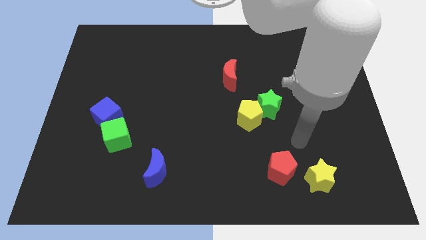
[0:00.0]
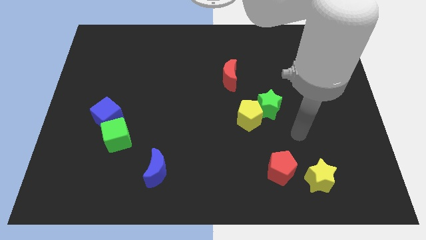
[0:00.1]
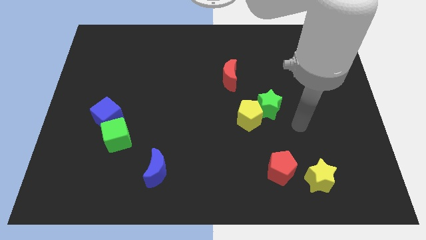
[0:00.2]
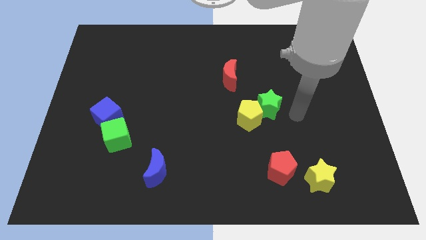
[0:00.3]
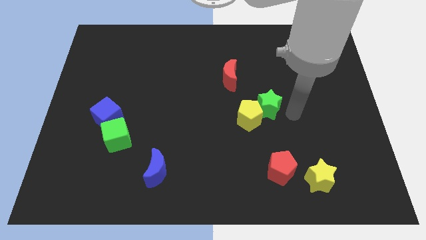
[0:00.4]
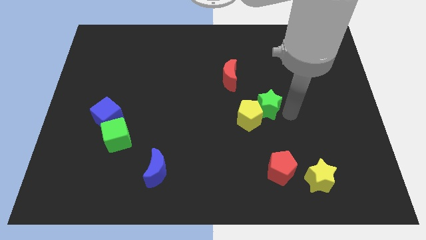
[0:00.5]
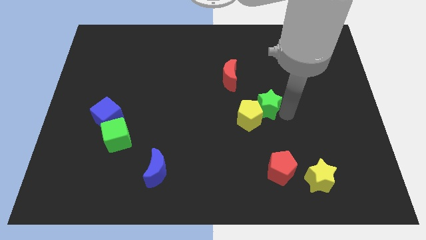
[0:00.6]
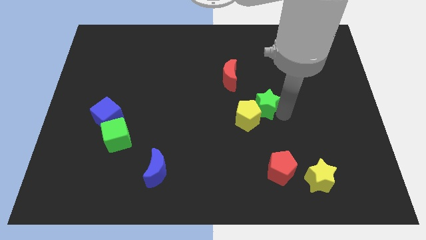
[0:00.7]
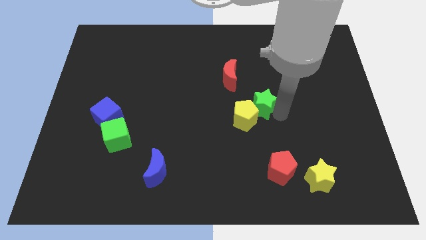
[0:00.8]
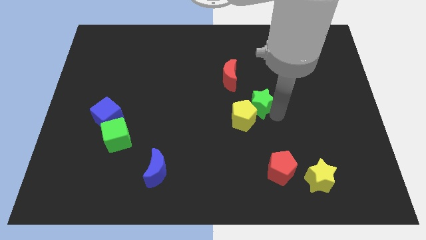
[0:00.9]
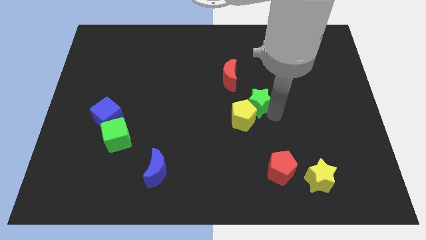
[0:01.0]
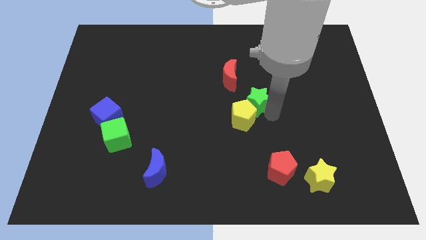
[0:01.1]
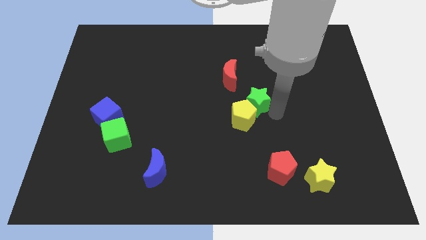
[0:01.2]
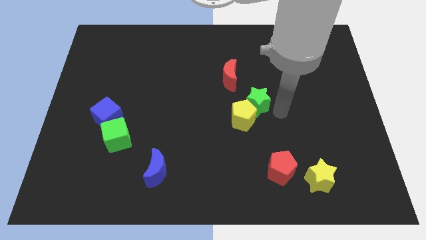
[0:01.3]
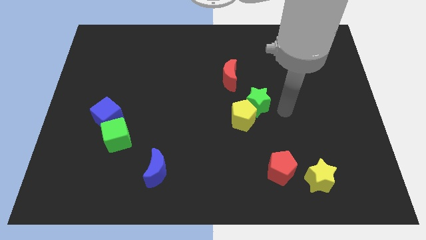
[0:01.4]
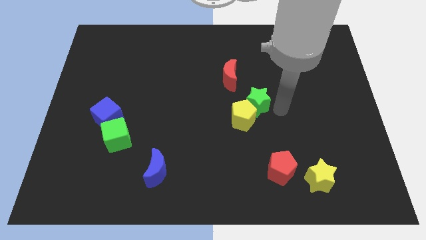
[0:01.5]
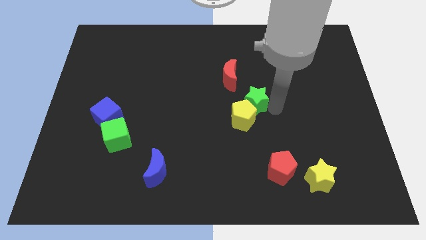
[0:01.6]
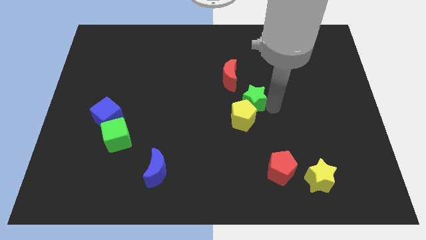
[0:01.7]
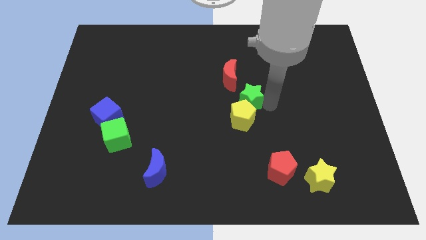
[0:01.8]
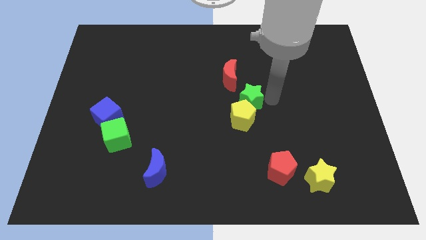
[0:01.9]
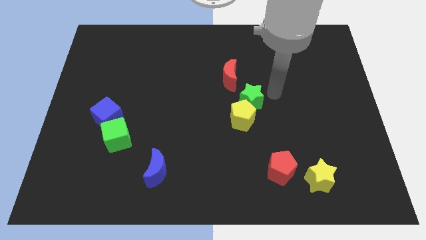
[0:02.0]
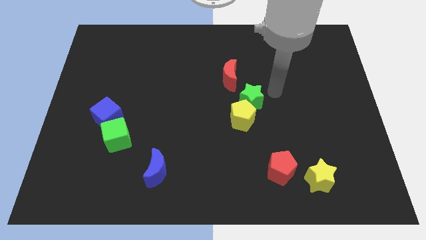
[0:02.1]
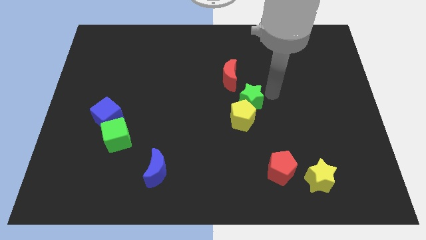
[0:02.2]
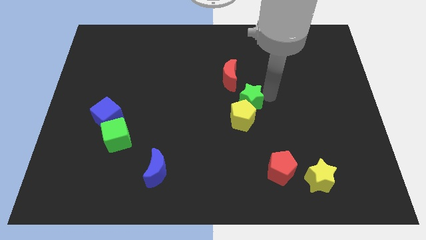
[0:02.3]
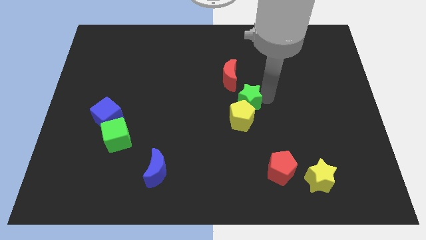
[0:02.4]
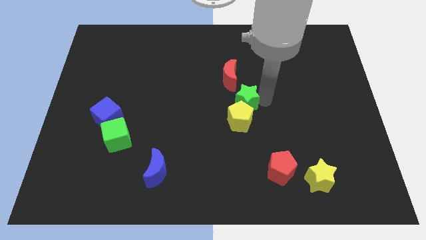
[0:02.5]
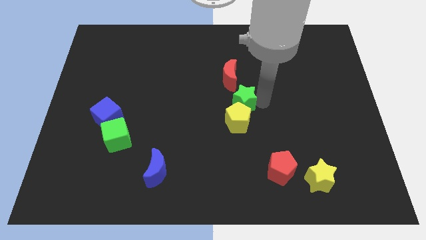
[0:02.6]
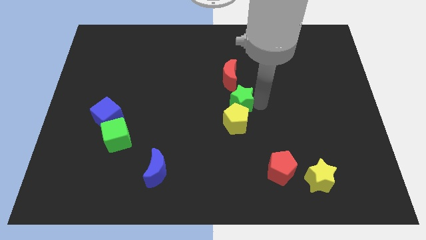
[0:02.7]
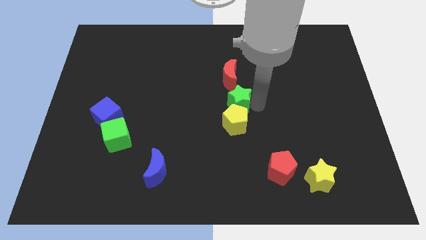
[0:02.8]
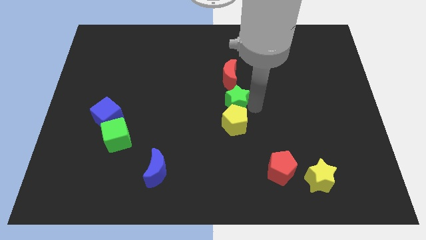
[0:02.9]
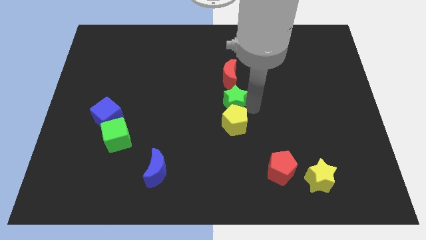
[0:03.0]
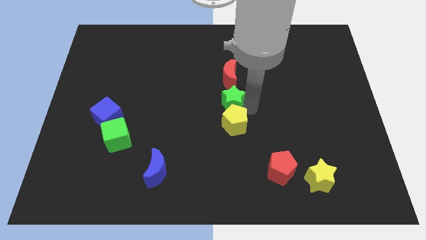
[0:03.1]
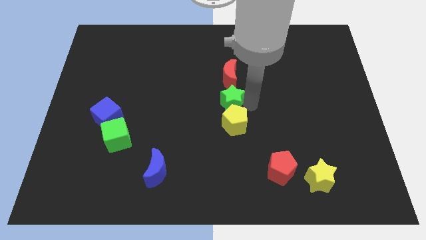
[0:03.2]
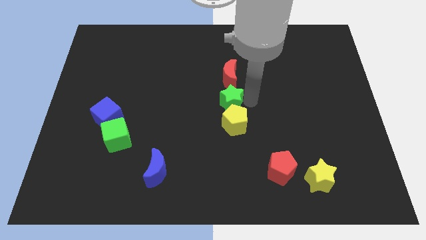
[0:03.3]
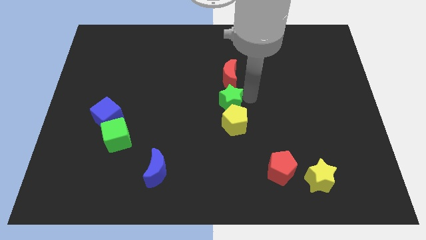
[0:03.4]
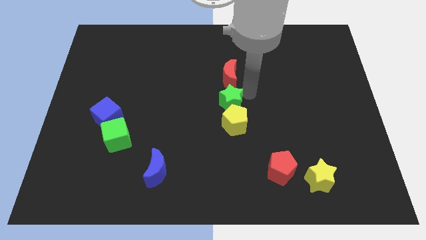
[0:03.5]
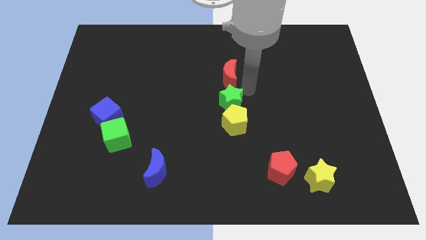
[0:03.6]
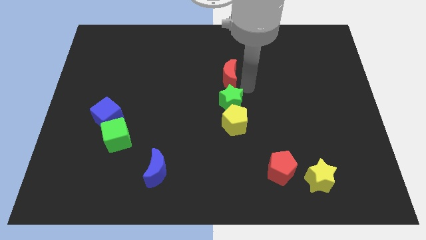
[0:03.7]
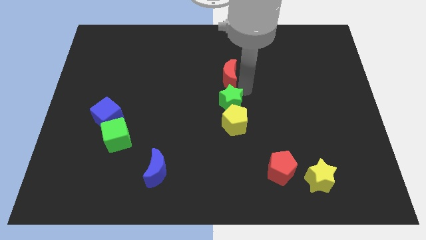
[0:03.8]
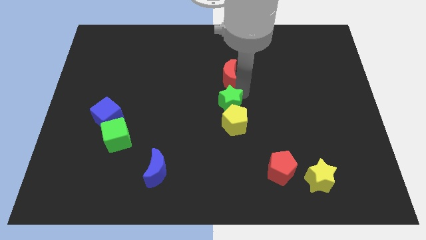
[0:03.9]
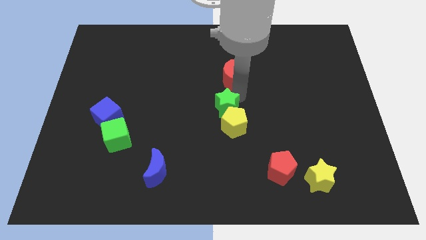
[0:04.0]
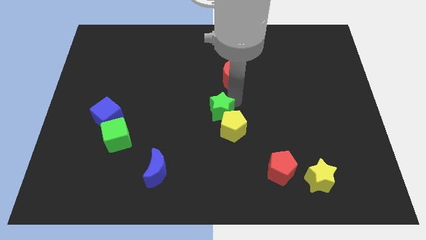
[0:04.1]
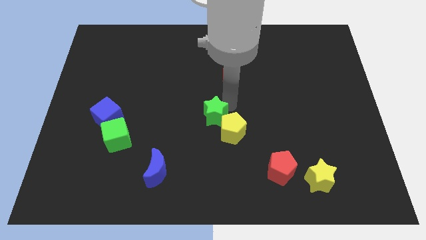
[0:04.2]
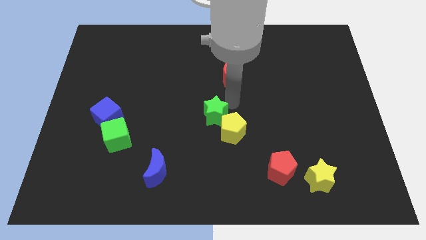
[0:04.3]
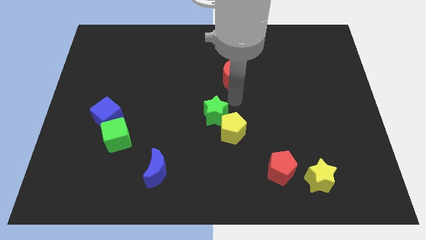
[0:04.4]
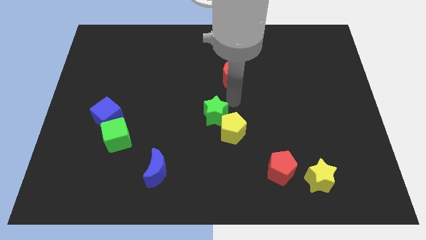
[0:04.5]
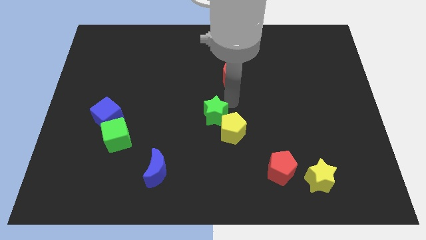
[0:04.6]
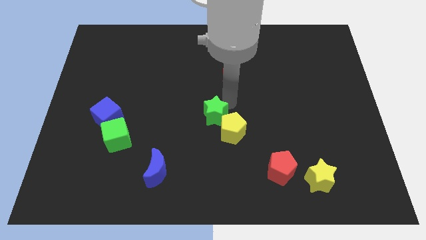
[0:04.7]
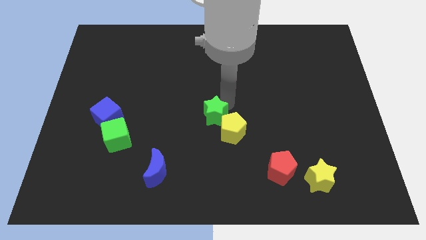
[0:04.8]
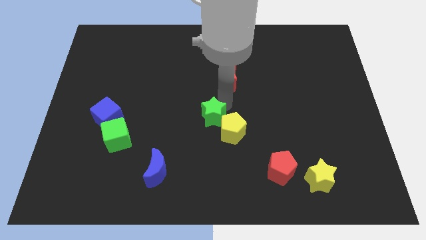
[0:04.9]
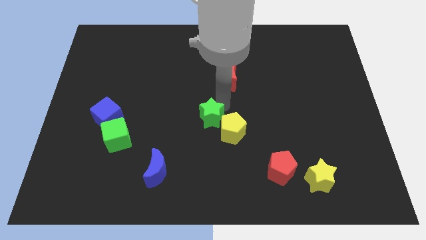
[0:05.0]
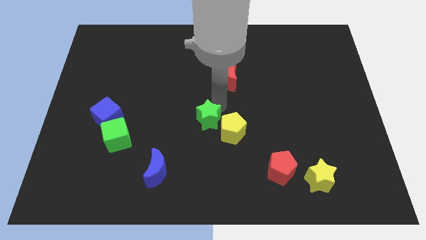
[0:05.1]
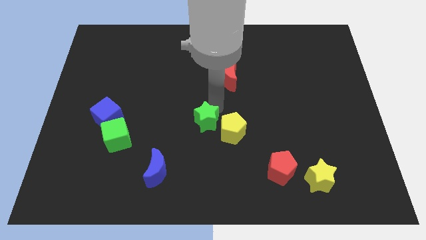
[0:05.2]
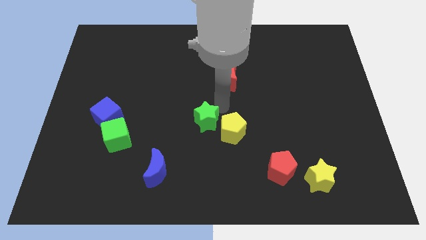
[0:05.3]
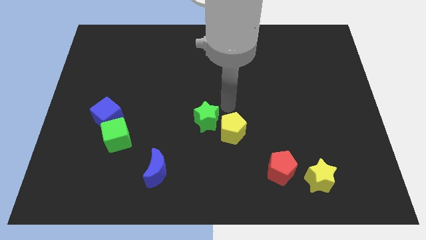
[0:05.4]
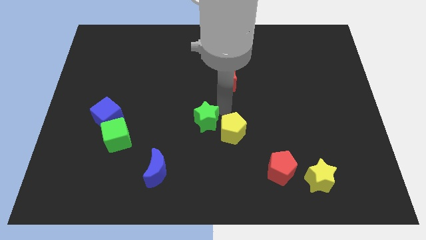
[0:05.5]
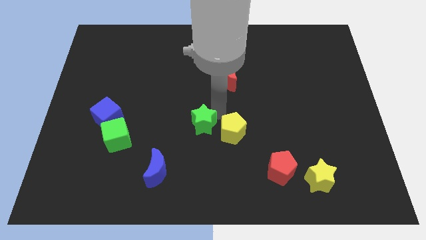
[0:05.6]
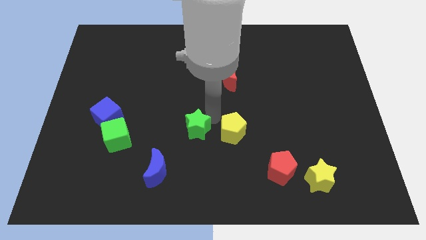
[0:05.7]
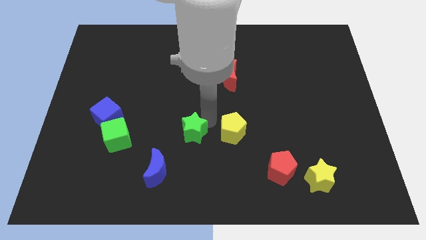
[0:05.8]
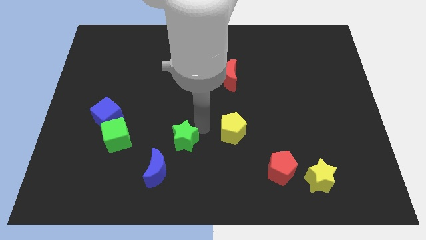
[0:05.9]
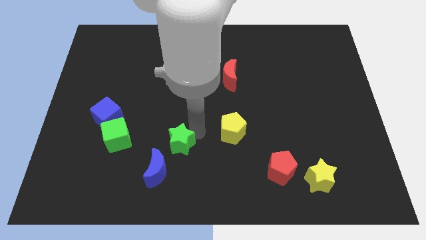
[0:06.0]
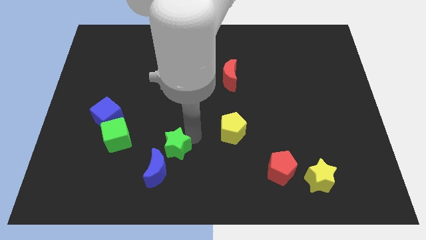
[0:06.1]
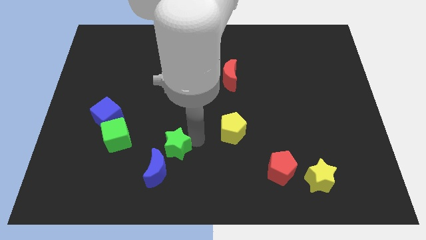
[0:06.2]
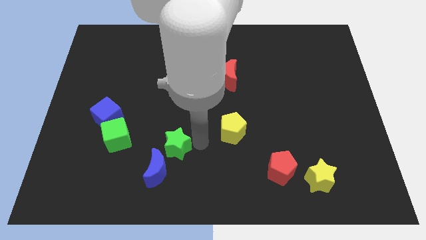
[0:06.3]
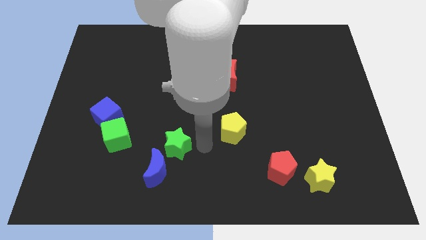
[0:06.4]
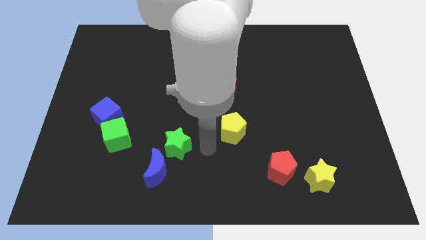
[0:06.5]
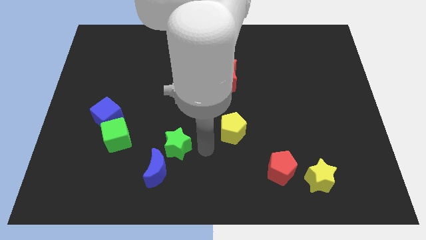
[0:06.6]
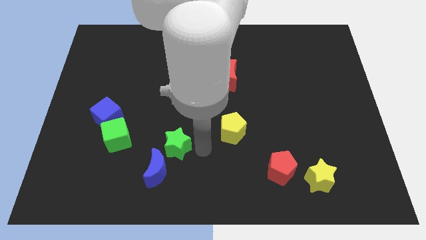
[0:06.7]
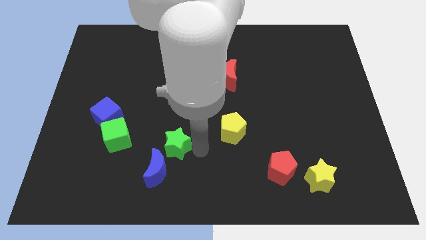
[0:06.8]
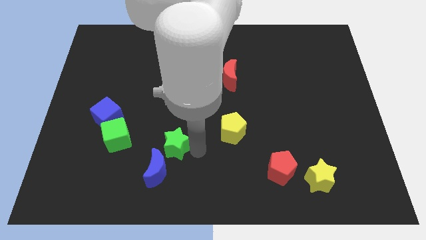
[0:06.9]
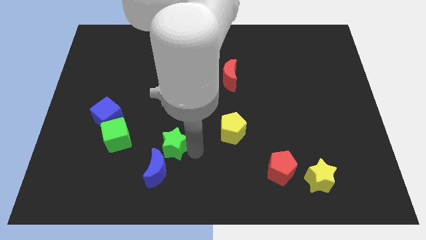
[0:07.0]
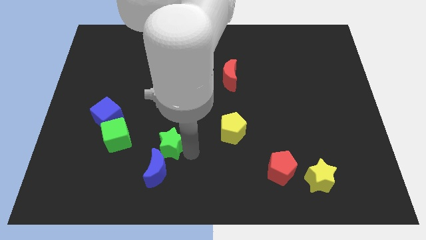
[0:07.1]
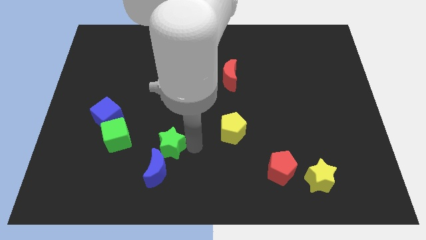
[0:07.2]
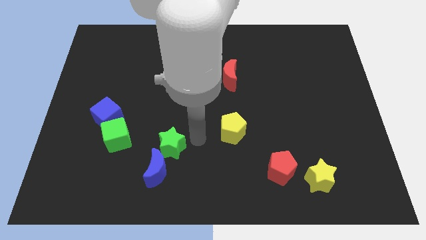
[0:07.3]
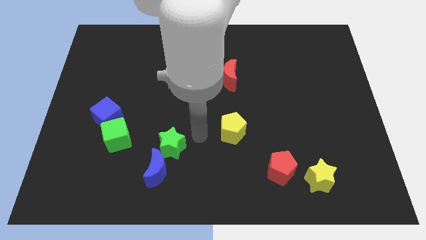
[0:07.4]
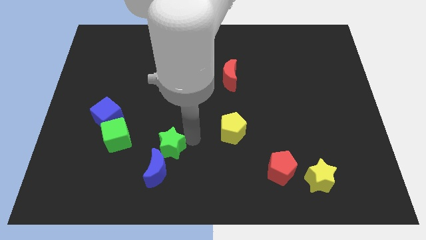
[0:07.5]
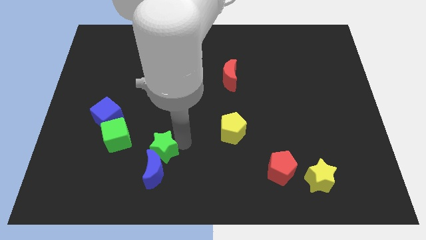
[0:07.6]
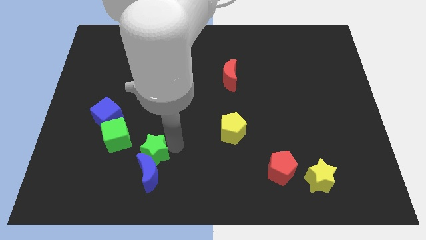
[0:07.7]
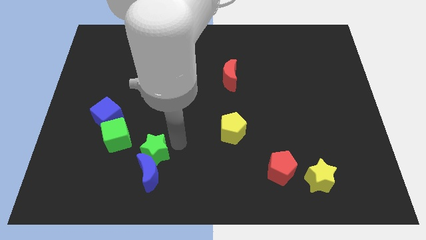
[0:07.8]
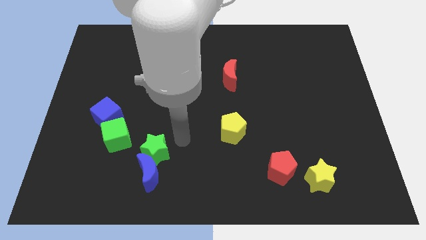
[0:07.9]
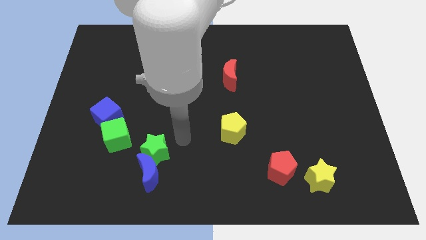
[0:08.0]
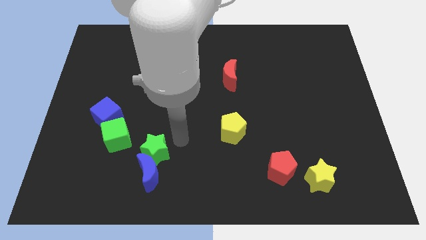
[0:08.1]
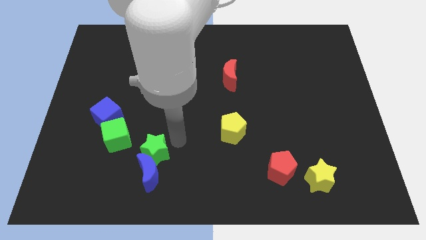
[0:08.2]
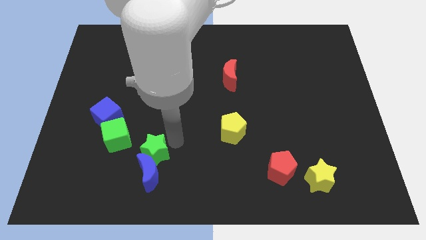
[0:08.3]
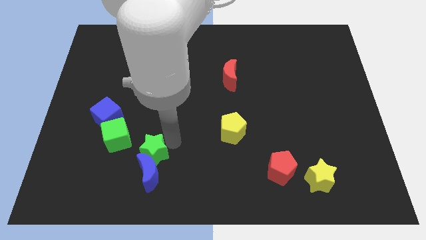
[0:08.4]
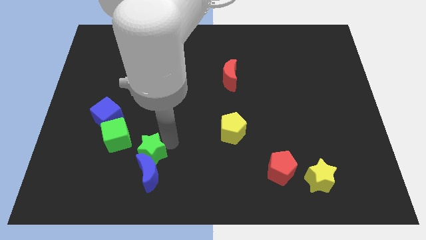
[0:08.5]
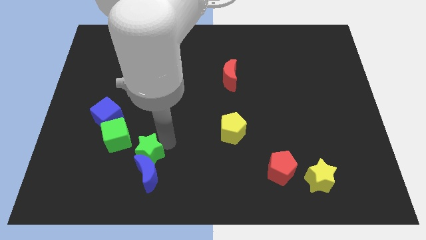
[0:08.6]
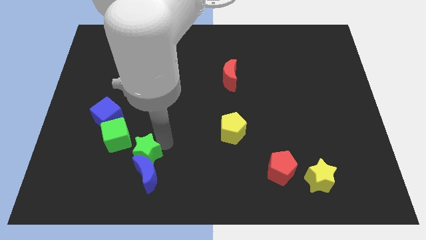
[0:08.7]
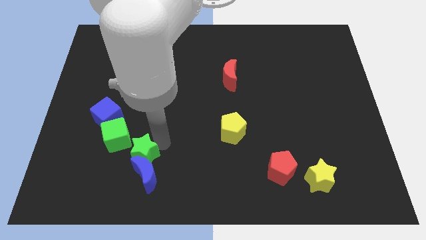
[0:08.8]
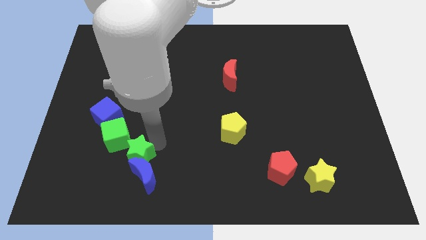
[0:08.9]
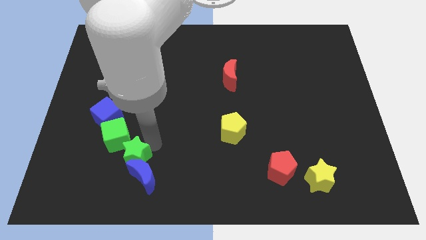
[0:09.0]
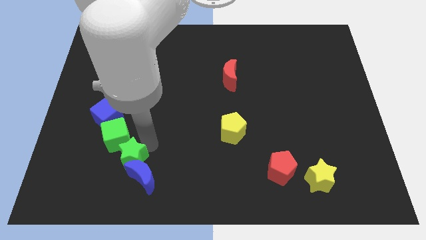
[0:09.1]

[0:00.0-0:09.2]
push the green star to the bottom of the green cube
